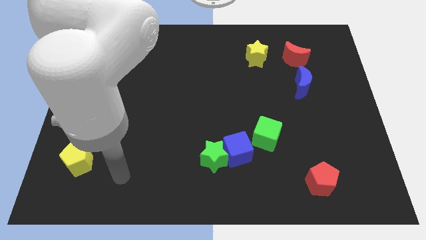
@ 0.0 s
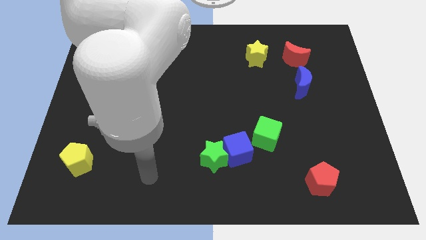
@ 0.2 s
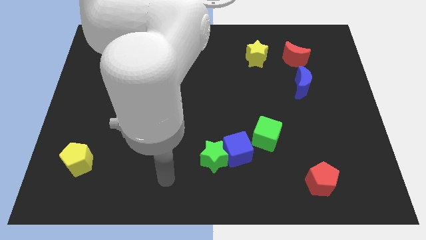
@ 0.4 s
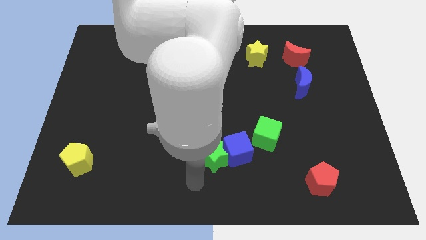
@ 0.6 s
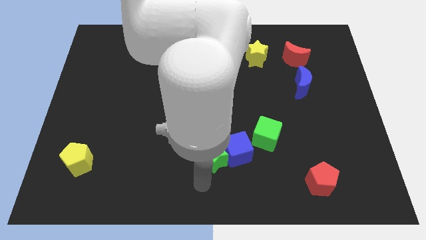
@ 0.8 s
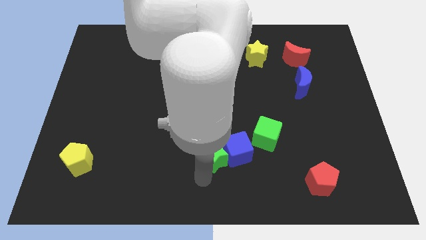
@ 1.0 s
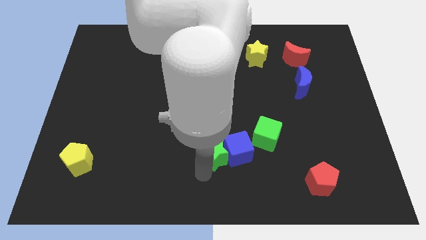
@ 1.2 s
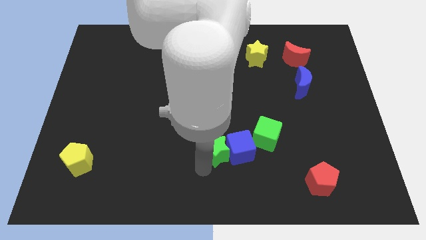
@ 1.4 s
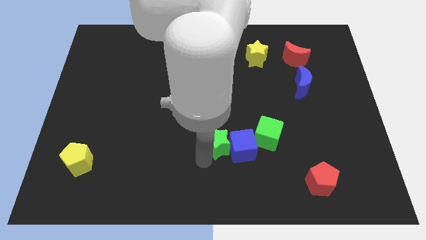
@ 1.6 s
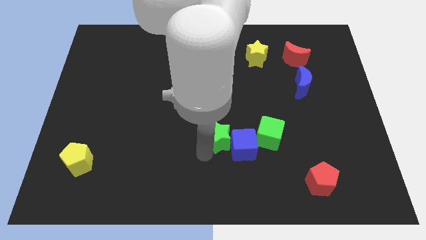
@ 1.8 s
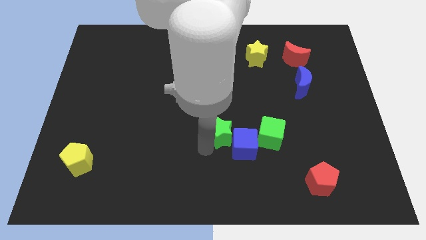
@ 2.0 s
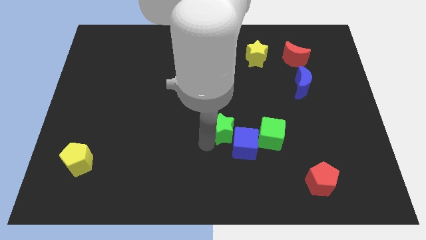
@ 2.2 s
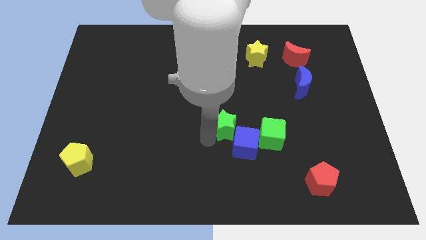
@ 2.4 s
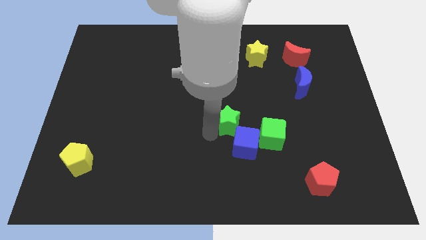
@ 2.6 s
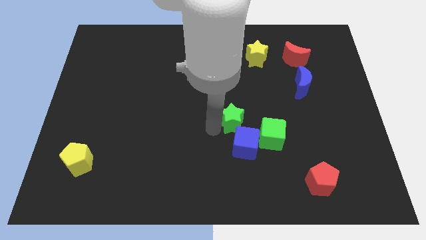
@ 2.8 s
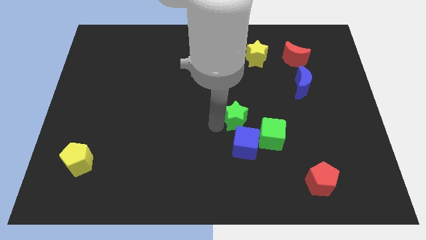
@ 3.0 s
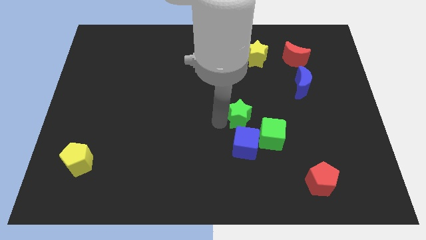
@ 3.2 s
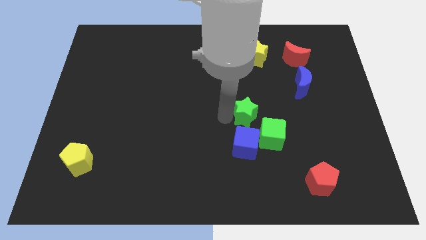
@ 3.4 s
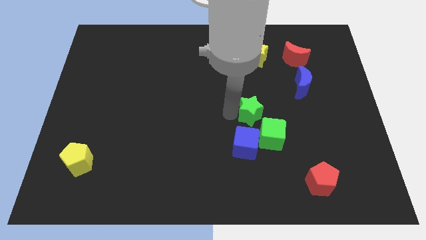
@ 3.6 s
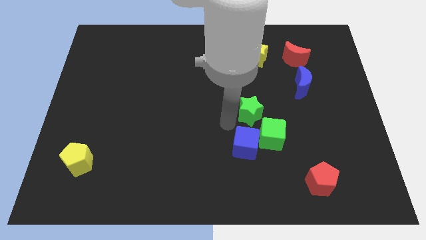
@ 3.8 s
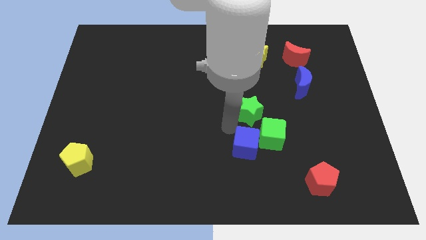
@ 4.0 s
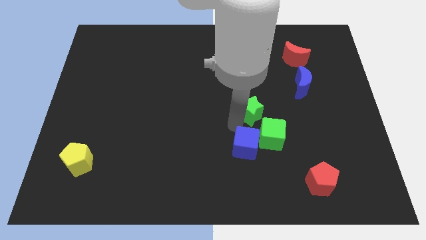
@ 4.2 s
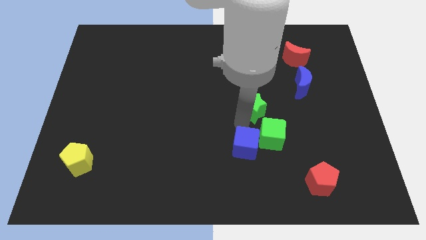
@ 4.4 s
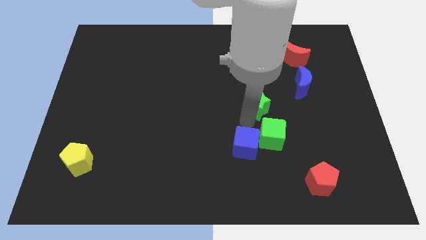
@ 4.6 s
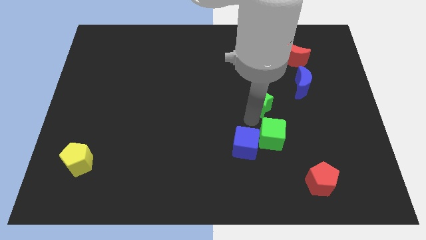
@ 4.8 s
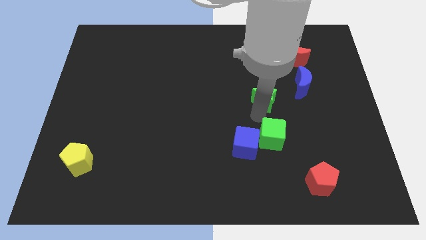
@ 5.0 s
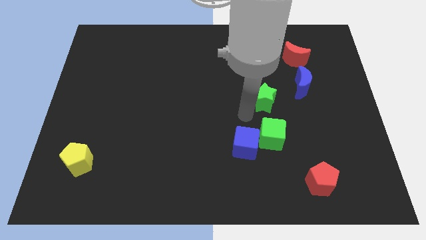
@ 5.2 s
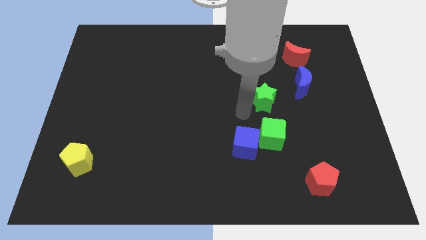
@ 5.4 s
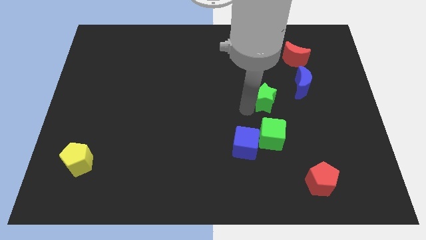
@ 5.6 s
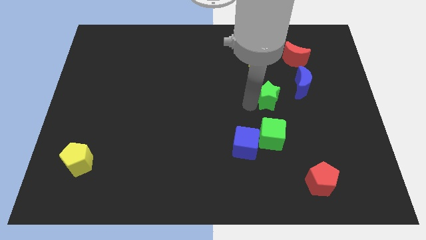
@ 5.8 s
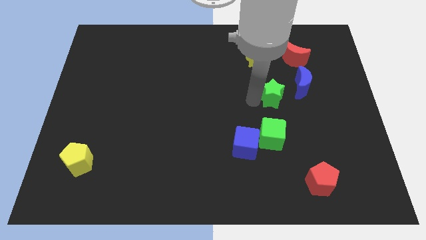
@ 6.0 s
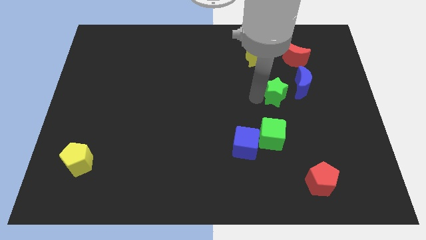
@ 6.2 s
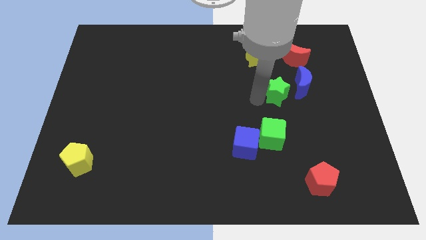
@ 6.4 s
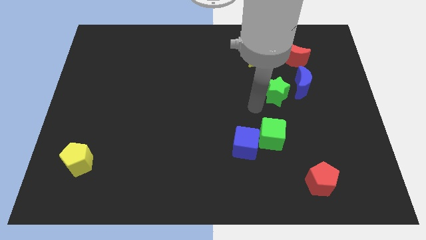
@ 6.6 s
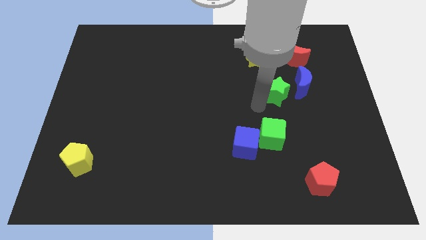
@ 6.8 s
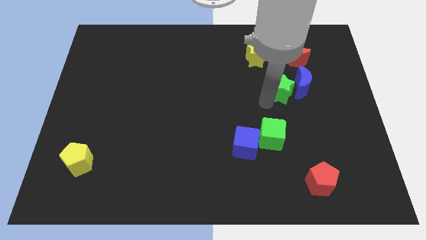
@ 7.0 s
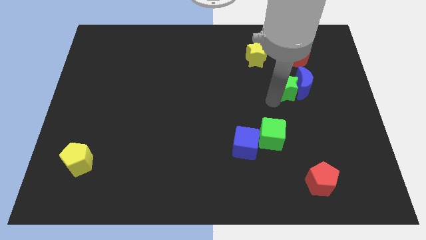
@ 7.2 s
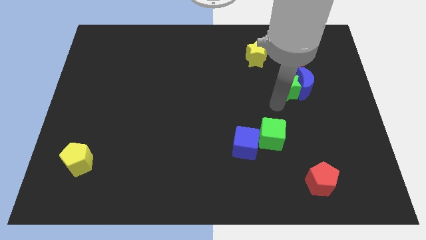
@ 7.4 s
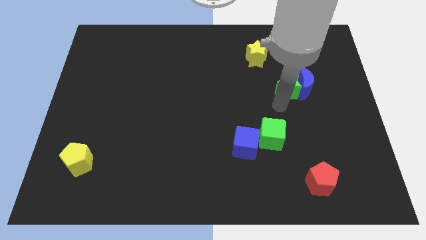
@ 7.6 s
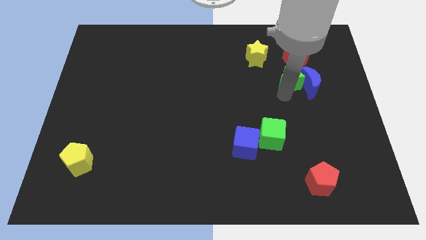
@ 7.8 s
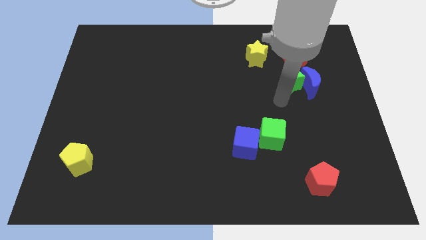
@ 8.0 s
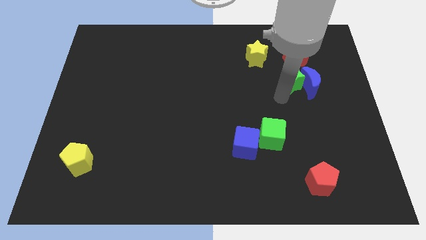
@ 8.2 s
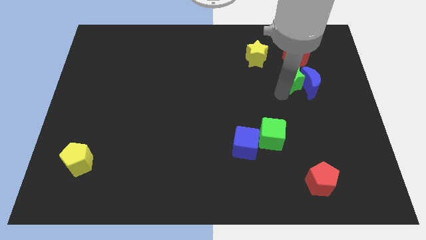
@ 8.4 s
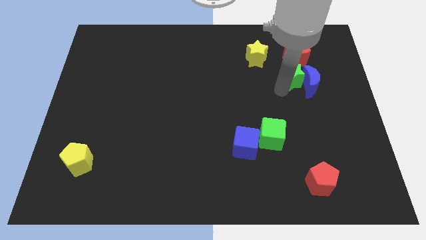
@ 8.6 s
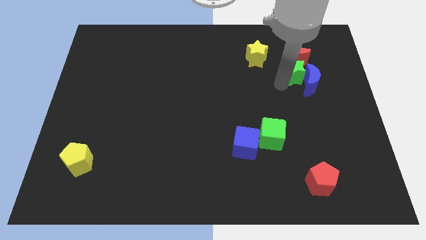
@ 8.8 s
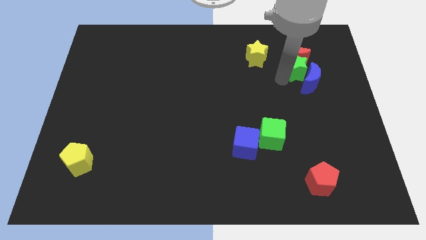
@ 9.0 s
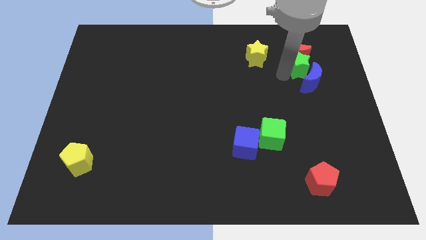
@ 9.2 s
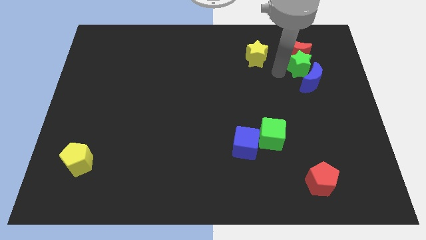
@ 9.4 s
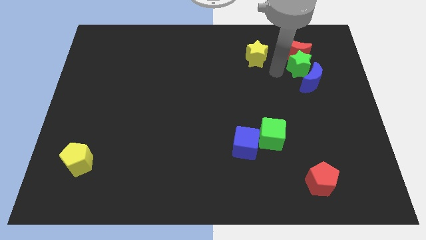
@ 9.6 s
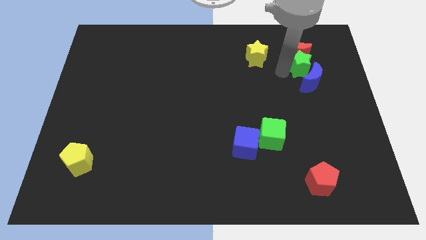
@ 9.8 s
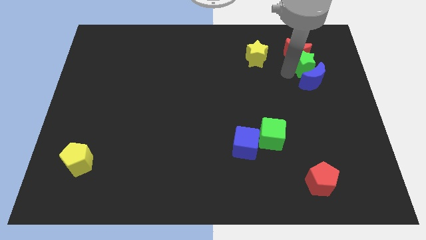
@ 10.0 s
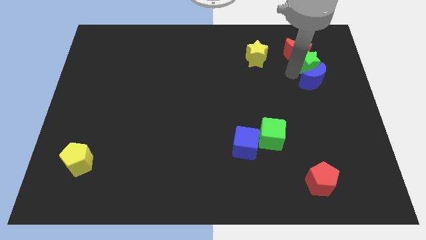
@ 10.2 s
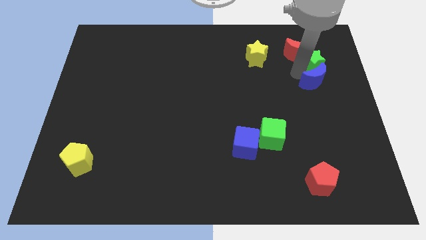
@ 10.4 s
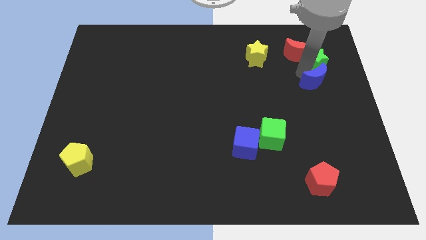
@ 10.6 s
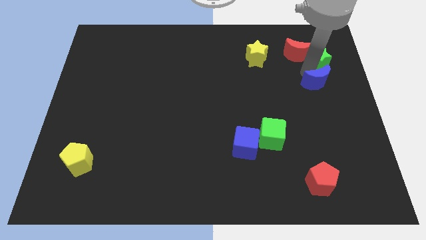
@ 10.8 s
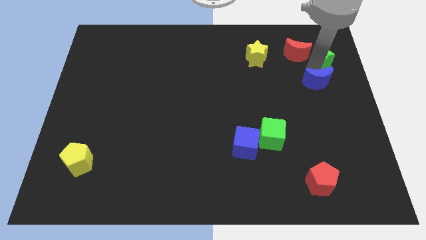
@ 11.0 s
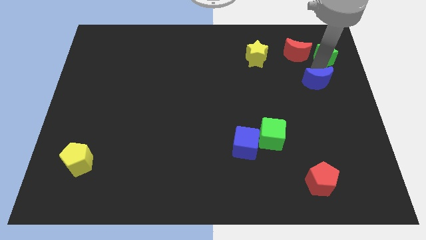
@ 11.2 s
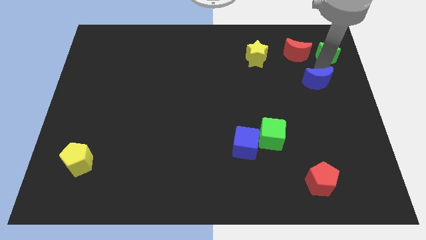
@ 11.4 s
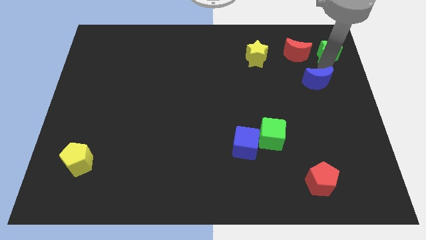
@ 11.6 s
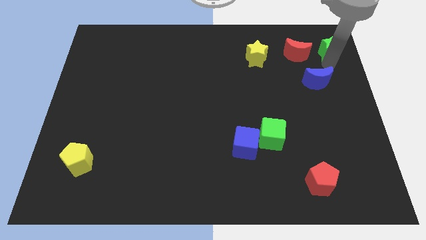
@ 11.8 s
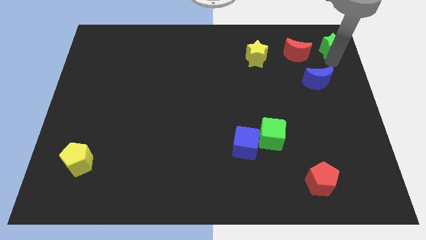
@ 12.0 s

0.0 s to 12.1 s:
move the green star to the upper right corner

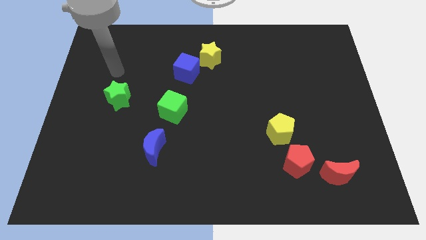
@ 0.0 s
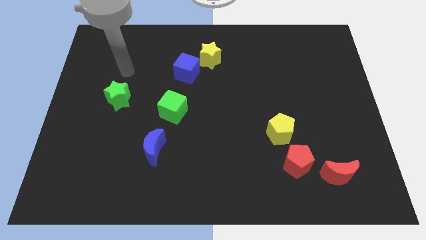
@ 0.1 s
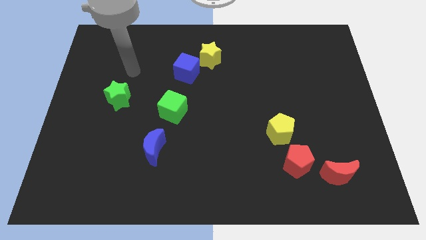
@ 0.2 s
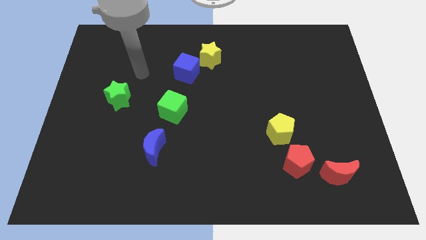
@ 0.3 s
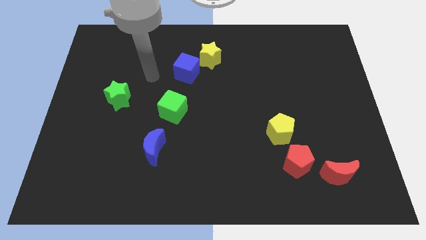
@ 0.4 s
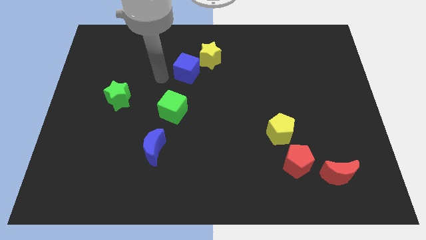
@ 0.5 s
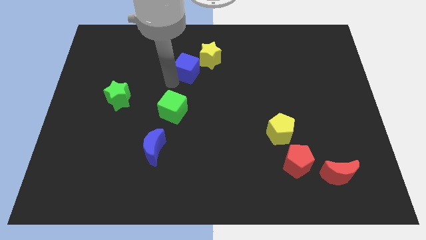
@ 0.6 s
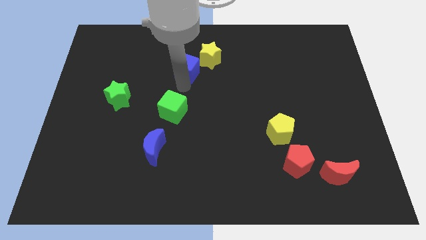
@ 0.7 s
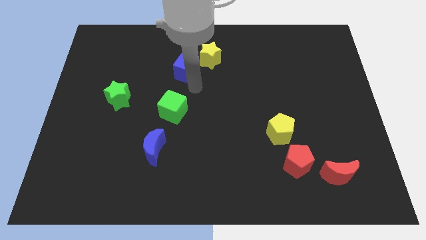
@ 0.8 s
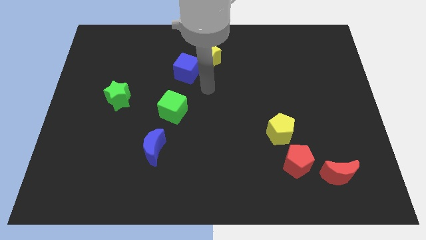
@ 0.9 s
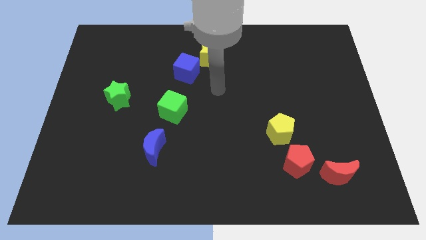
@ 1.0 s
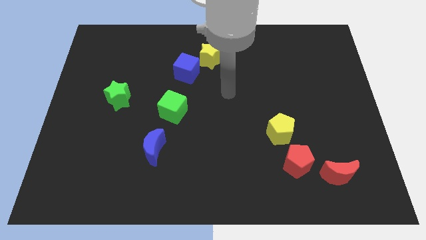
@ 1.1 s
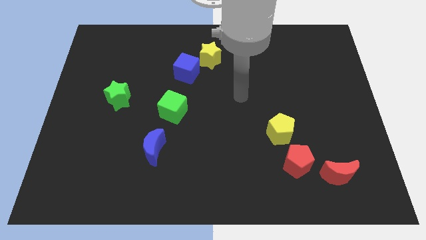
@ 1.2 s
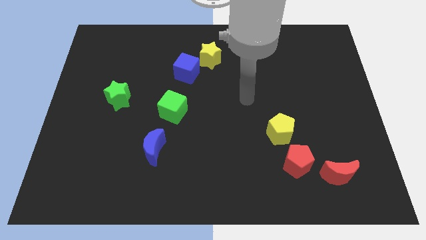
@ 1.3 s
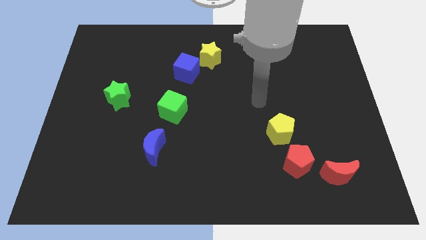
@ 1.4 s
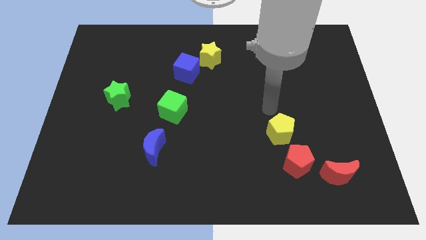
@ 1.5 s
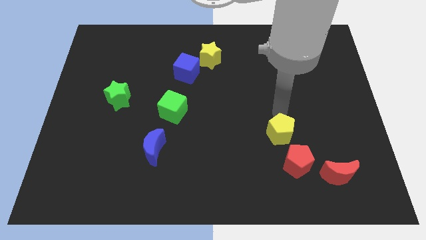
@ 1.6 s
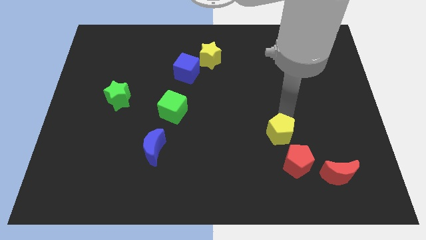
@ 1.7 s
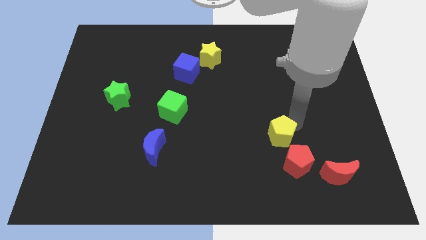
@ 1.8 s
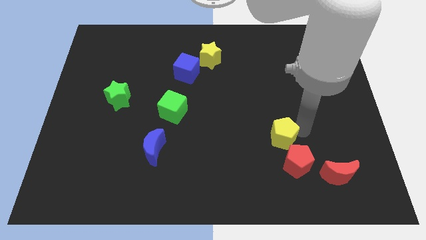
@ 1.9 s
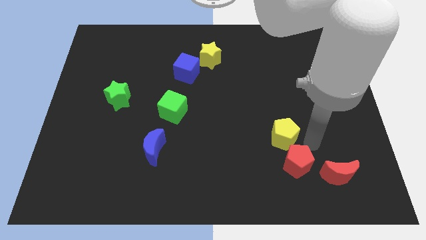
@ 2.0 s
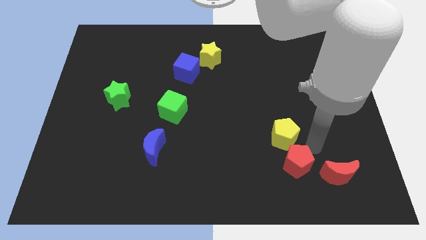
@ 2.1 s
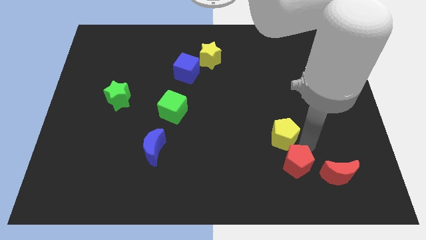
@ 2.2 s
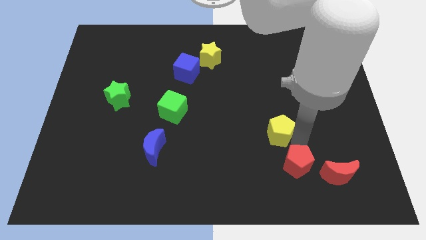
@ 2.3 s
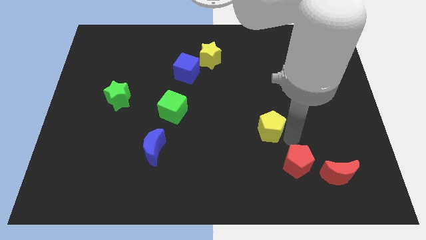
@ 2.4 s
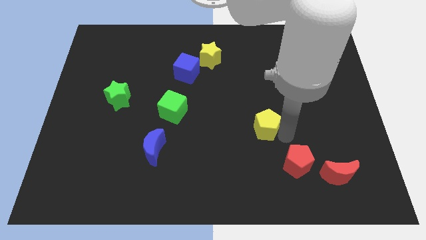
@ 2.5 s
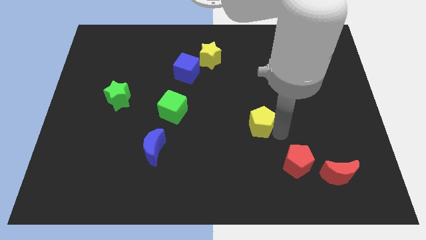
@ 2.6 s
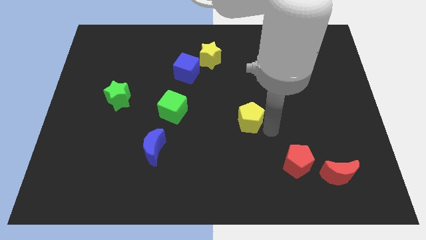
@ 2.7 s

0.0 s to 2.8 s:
slide the yellow pentagon to the center of the board
